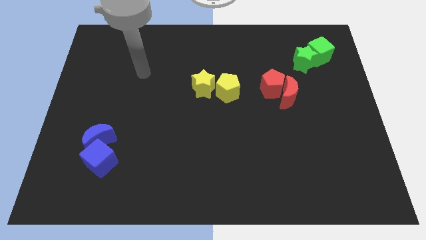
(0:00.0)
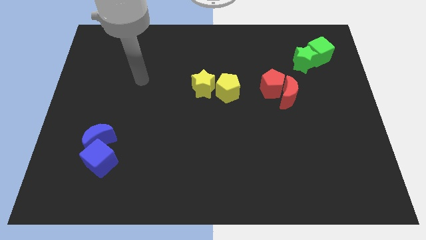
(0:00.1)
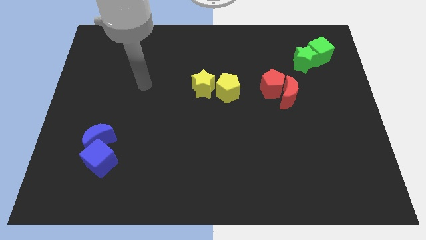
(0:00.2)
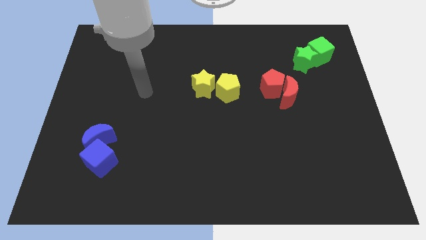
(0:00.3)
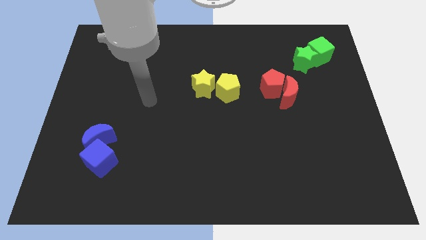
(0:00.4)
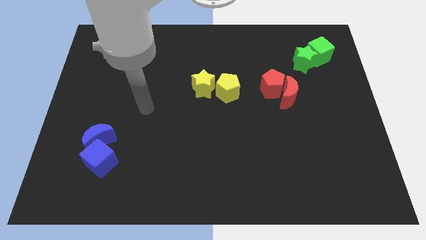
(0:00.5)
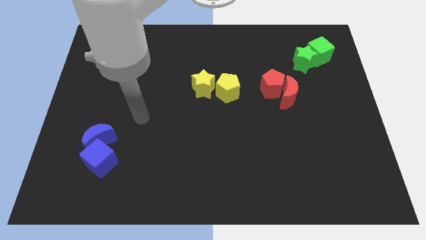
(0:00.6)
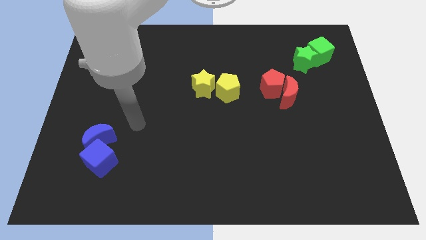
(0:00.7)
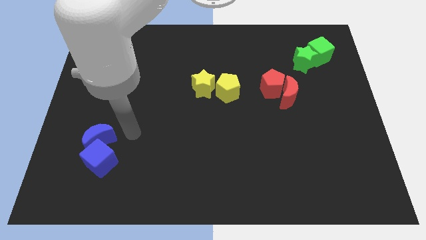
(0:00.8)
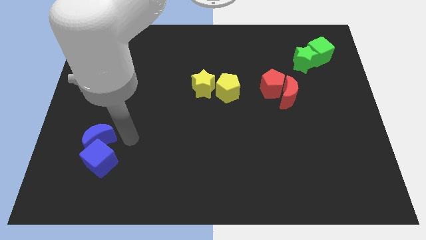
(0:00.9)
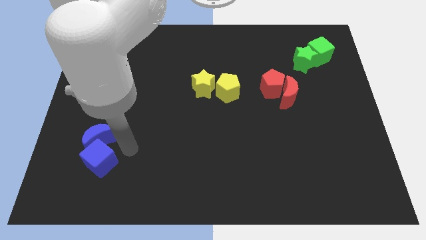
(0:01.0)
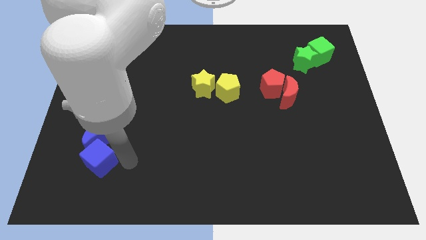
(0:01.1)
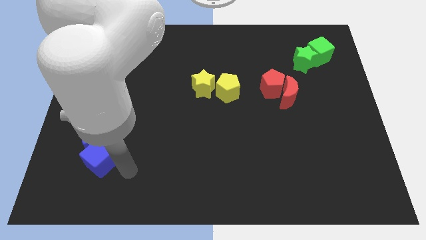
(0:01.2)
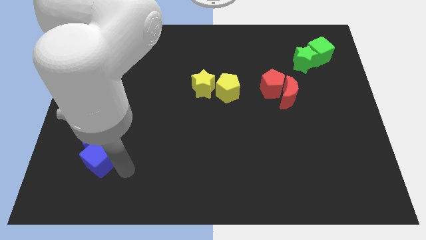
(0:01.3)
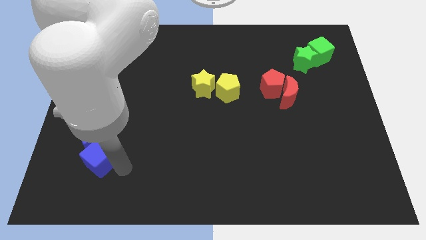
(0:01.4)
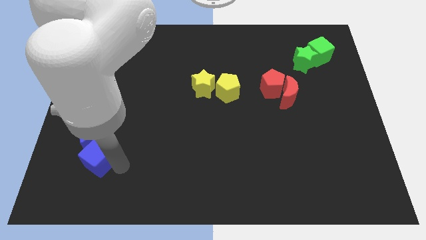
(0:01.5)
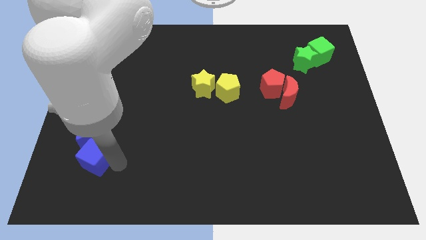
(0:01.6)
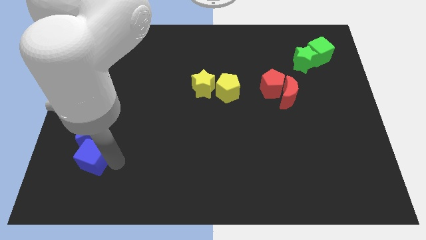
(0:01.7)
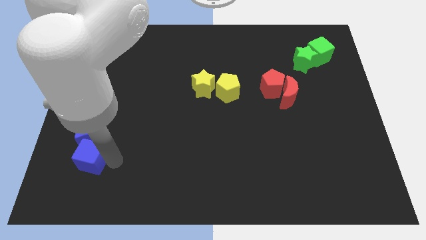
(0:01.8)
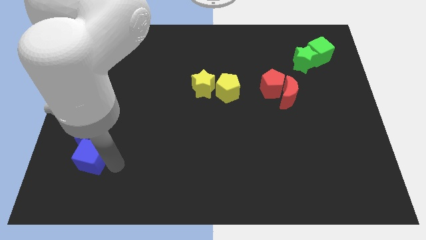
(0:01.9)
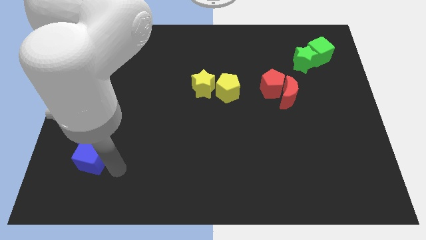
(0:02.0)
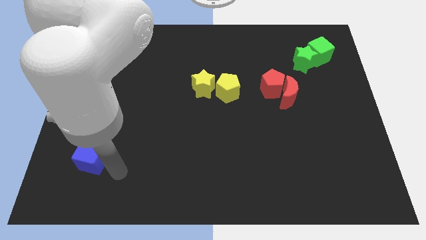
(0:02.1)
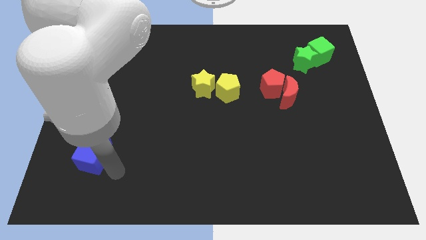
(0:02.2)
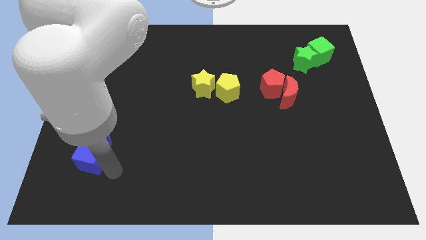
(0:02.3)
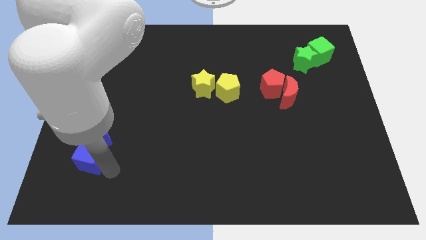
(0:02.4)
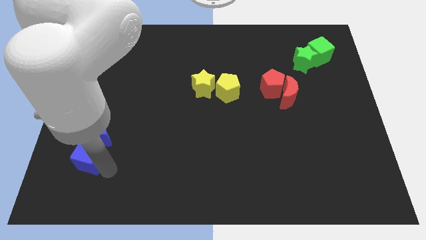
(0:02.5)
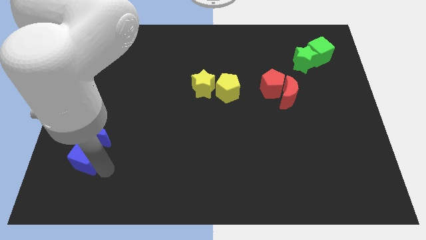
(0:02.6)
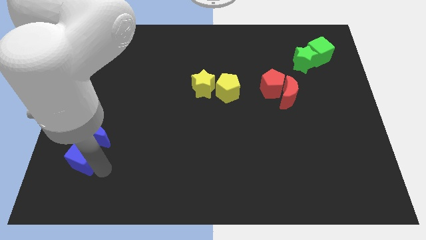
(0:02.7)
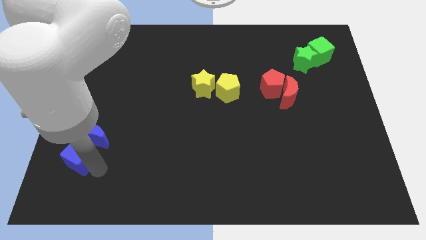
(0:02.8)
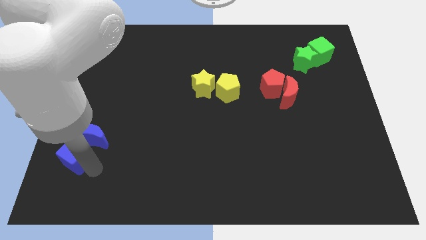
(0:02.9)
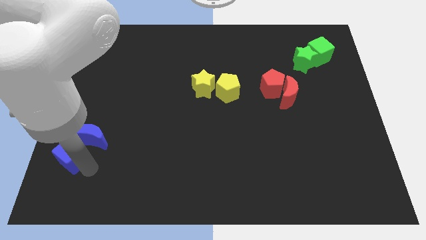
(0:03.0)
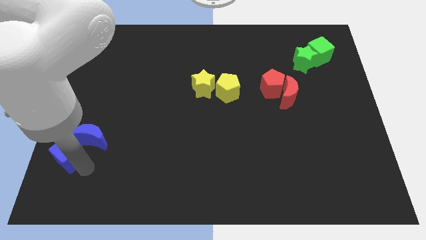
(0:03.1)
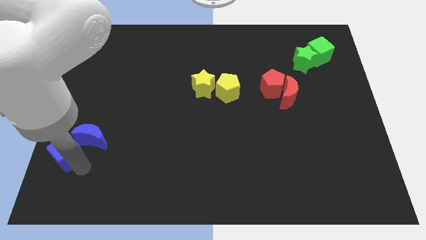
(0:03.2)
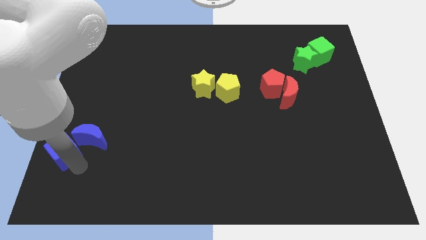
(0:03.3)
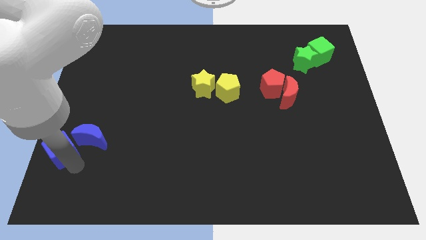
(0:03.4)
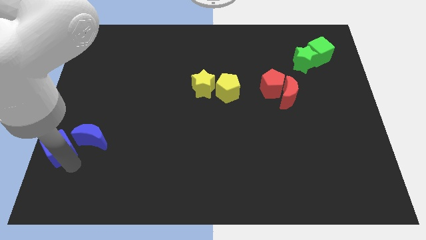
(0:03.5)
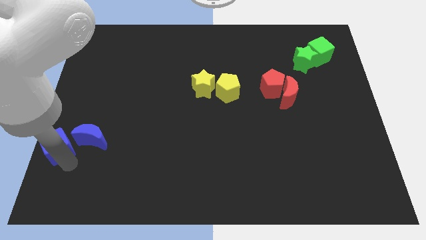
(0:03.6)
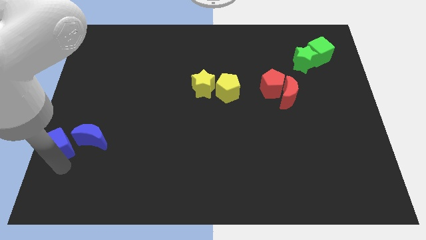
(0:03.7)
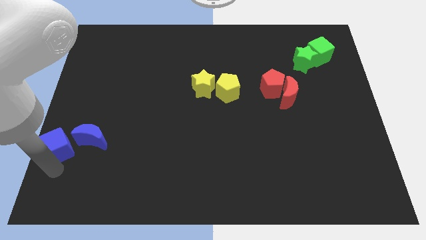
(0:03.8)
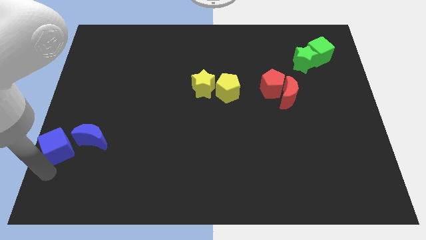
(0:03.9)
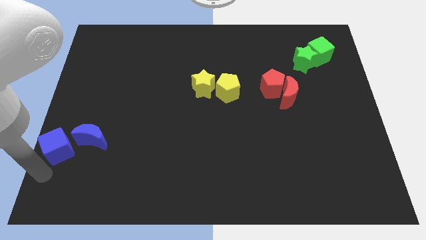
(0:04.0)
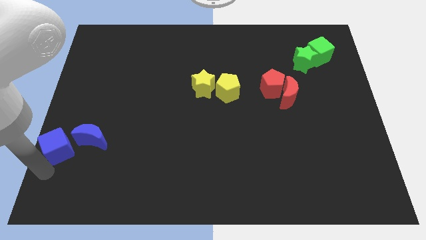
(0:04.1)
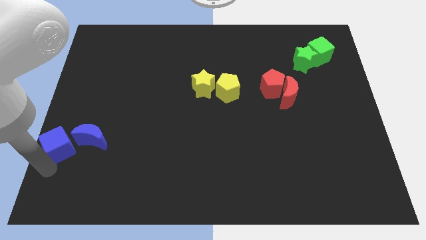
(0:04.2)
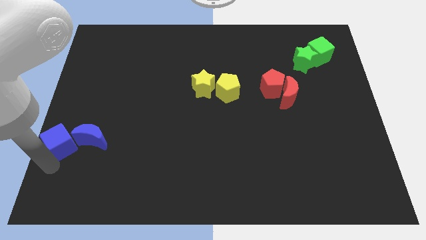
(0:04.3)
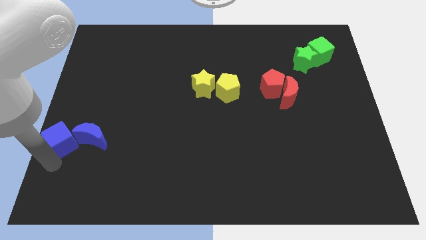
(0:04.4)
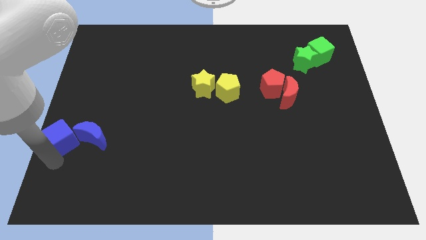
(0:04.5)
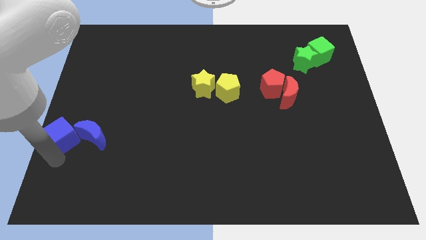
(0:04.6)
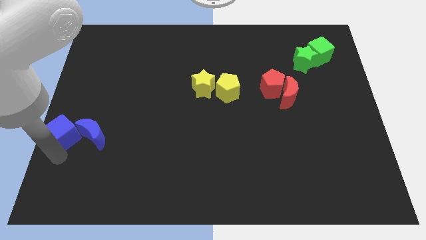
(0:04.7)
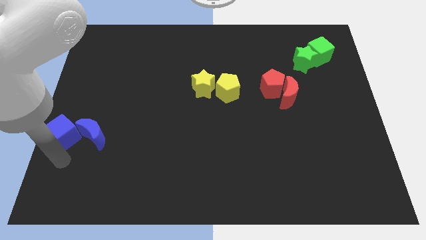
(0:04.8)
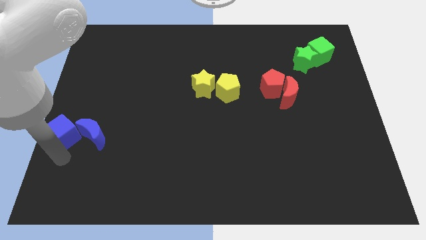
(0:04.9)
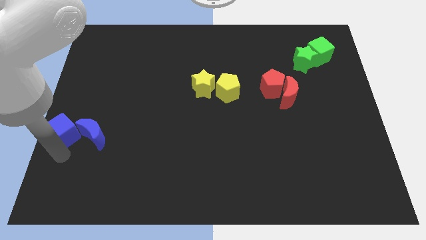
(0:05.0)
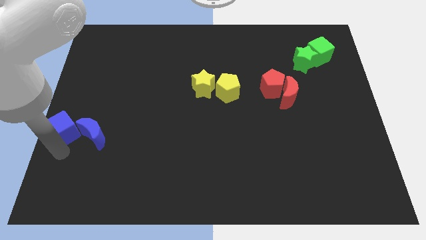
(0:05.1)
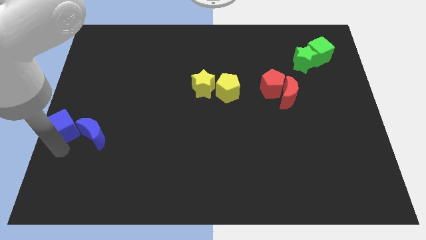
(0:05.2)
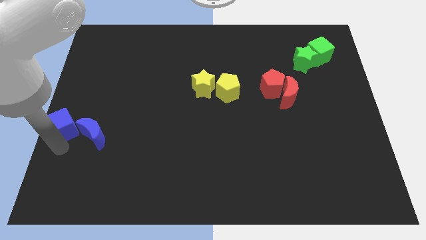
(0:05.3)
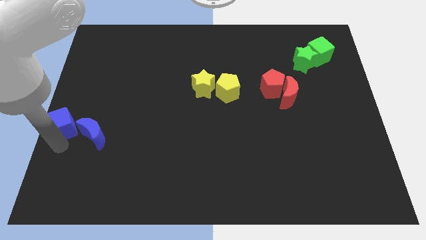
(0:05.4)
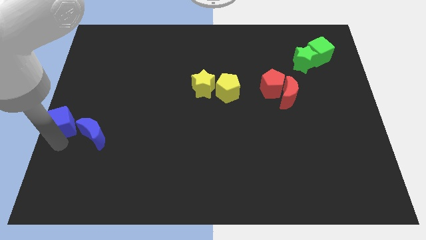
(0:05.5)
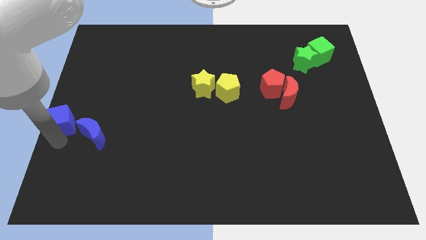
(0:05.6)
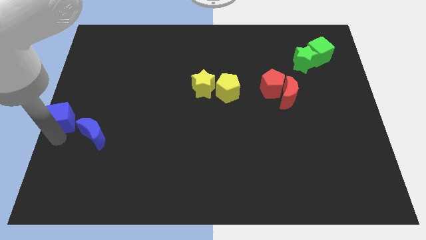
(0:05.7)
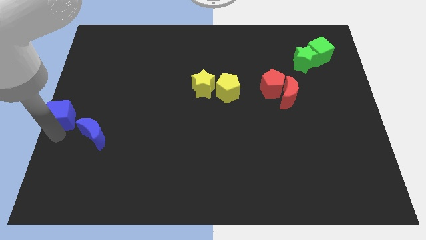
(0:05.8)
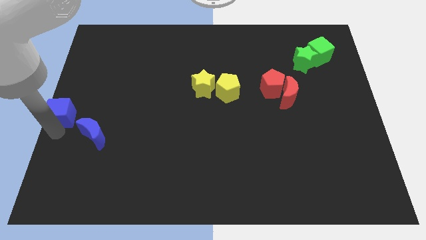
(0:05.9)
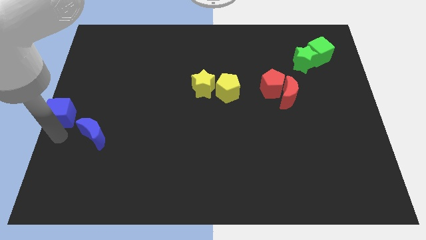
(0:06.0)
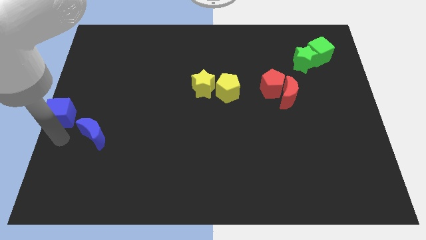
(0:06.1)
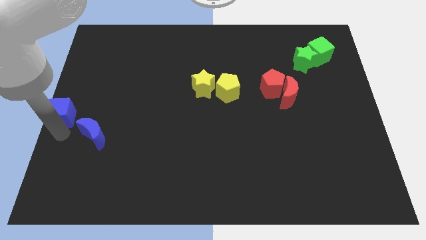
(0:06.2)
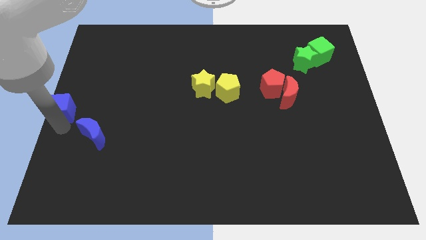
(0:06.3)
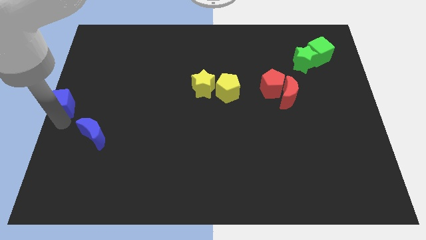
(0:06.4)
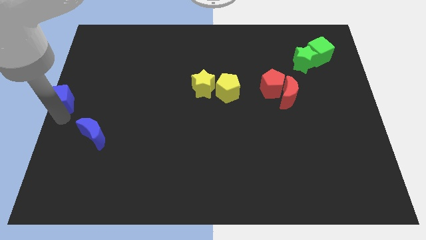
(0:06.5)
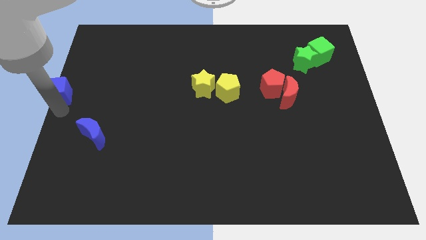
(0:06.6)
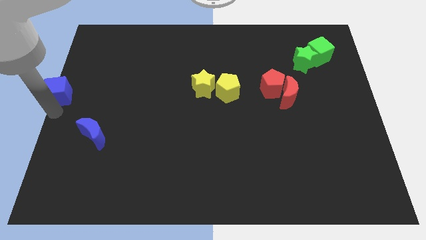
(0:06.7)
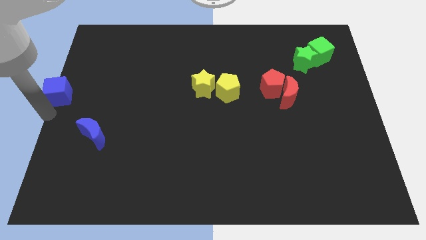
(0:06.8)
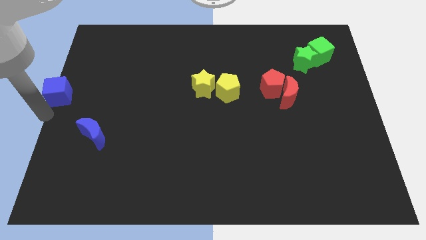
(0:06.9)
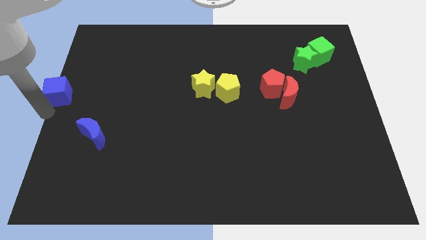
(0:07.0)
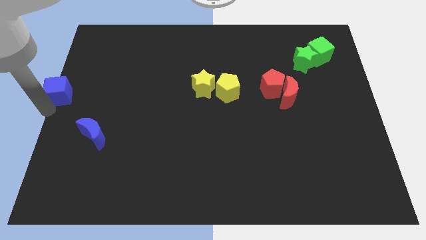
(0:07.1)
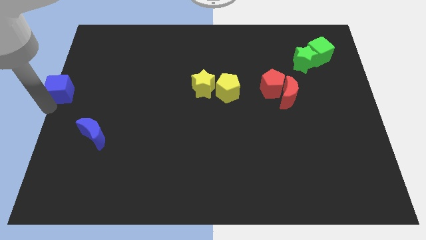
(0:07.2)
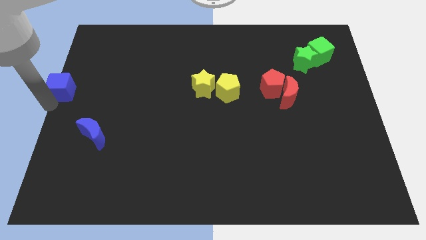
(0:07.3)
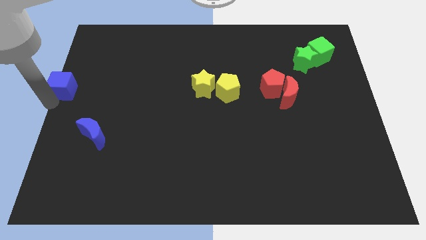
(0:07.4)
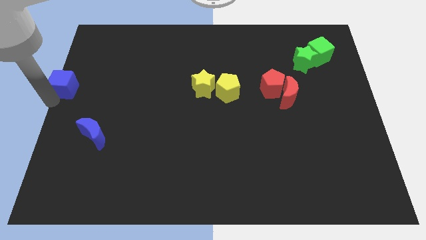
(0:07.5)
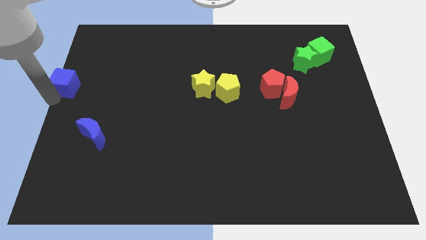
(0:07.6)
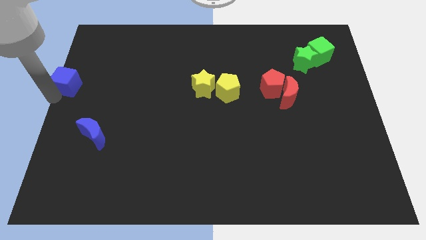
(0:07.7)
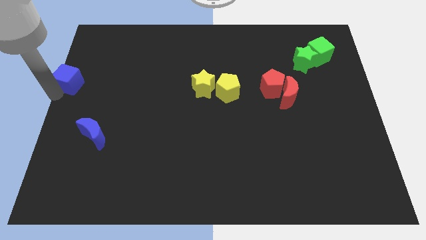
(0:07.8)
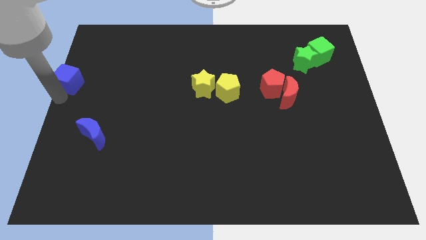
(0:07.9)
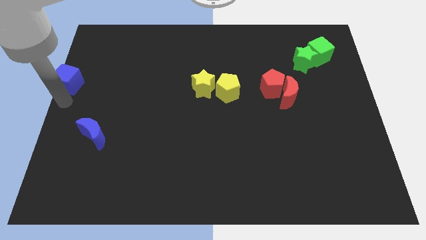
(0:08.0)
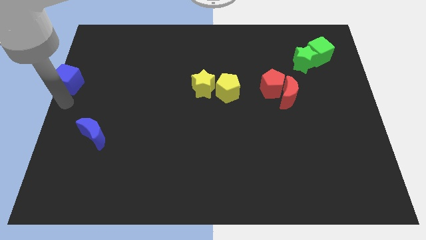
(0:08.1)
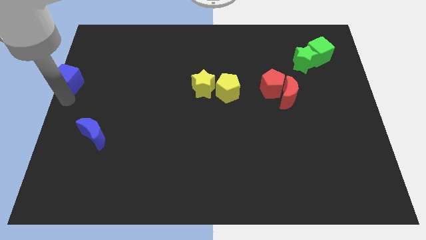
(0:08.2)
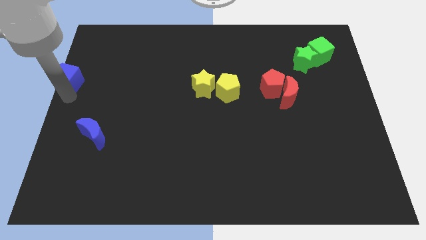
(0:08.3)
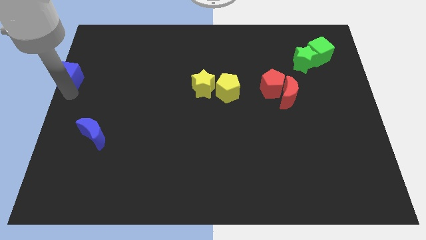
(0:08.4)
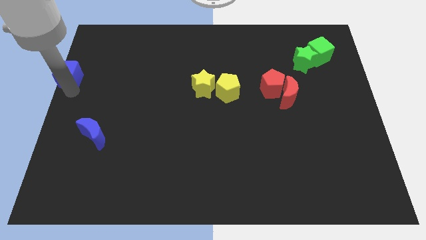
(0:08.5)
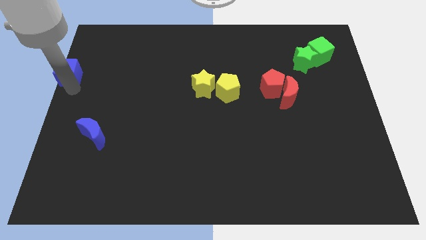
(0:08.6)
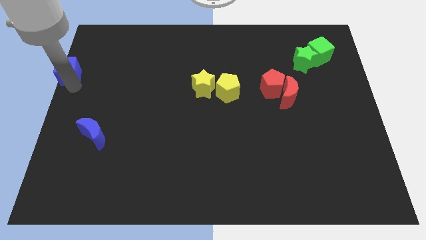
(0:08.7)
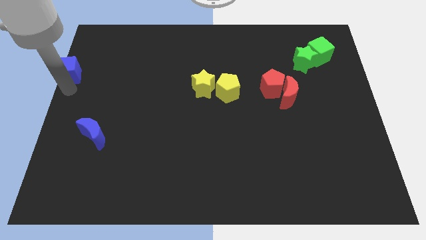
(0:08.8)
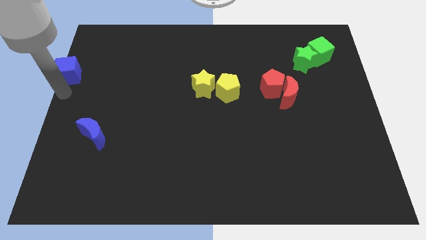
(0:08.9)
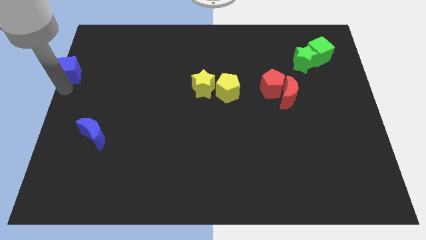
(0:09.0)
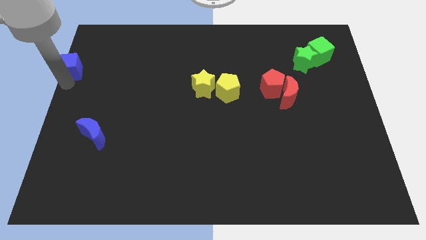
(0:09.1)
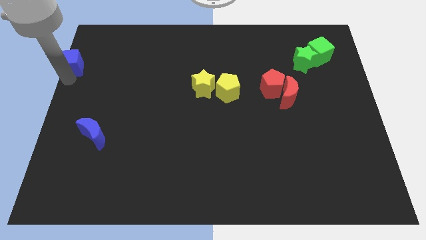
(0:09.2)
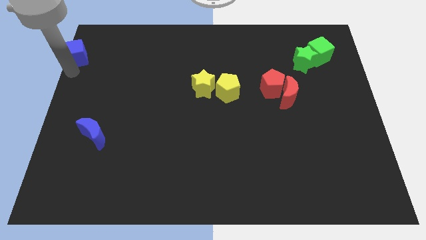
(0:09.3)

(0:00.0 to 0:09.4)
push the blue cube to the top left of the board
